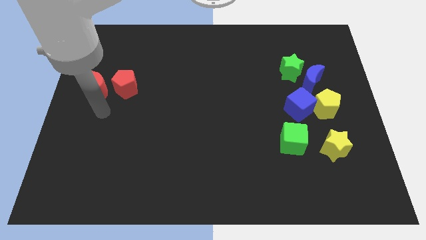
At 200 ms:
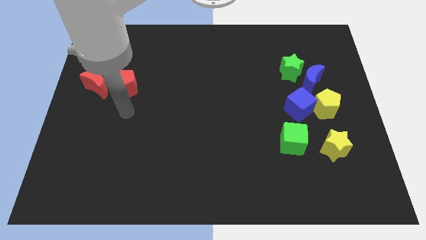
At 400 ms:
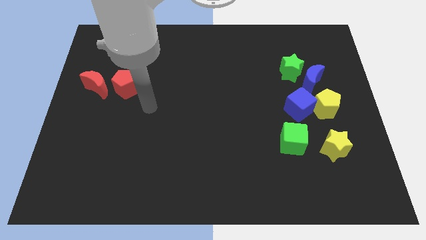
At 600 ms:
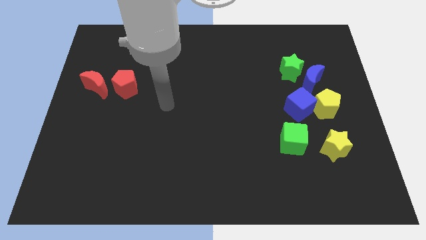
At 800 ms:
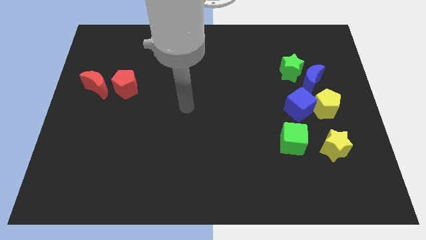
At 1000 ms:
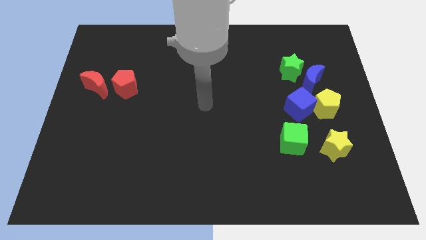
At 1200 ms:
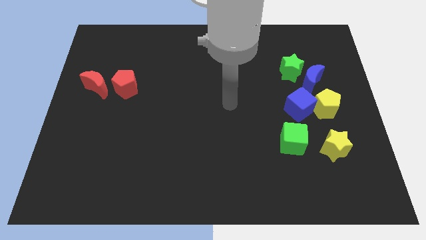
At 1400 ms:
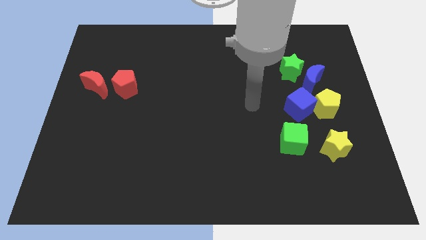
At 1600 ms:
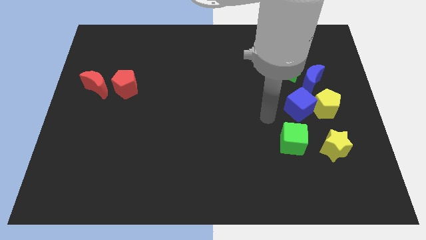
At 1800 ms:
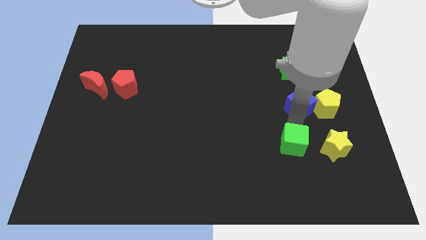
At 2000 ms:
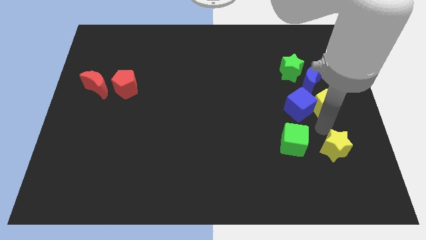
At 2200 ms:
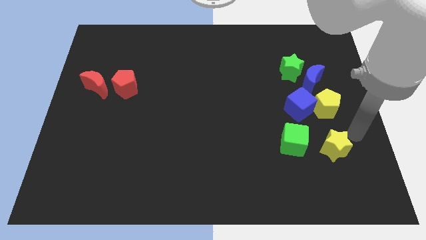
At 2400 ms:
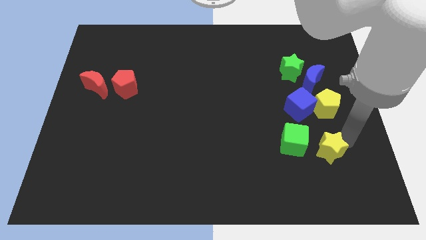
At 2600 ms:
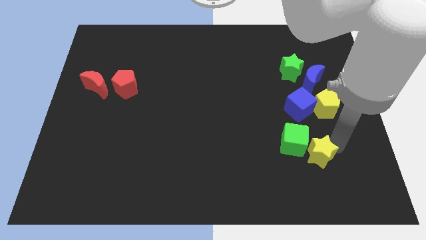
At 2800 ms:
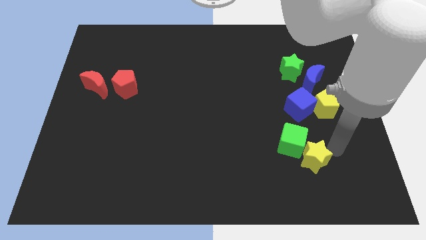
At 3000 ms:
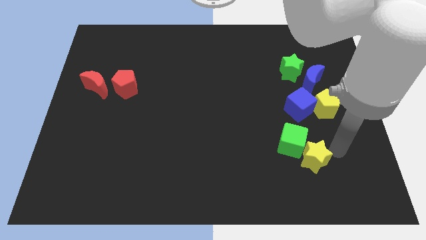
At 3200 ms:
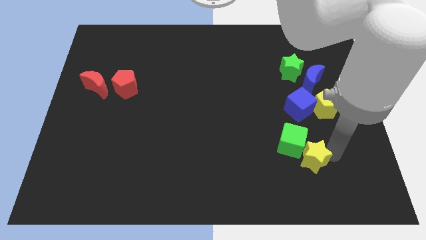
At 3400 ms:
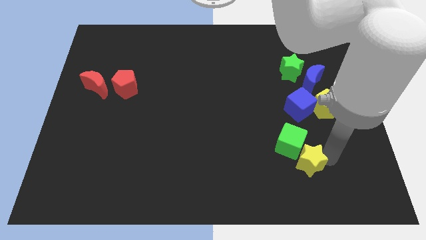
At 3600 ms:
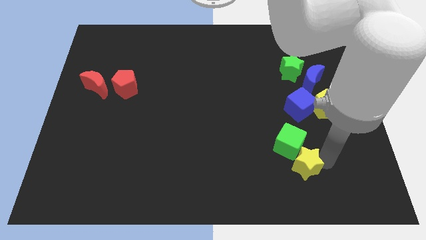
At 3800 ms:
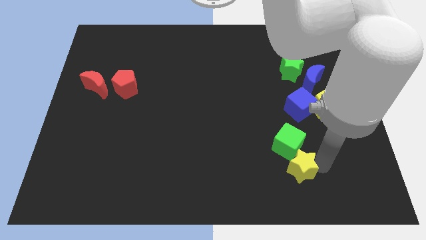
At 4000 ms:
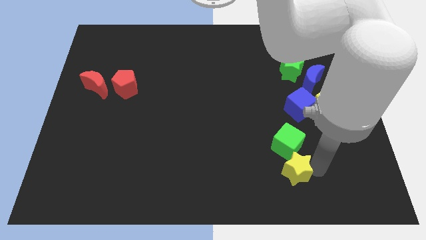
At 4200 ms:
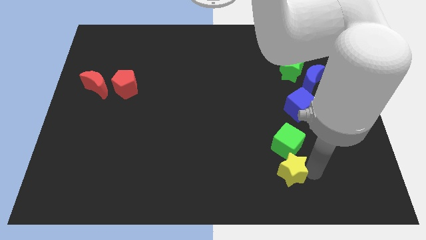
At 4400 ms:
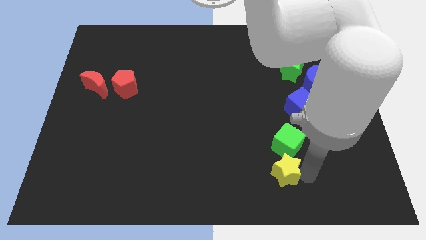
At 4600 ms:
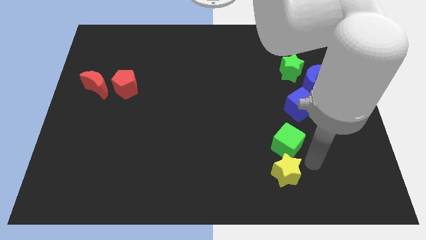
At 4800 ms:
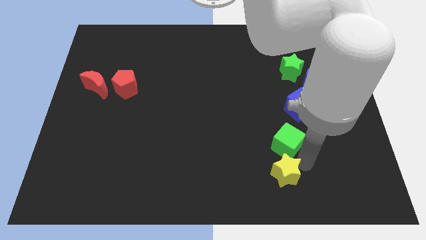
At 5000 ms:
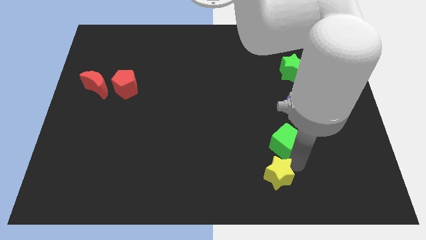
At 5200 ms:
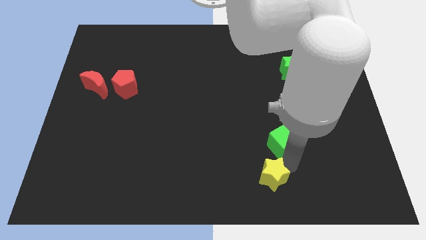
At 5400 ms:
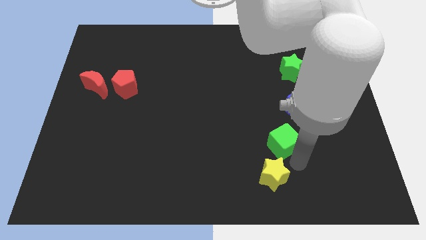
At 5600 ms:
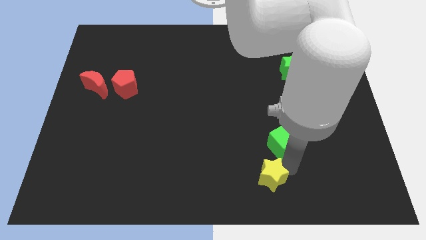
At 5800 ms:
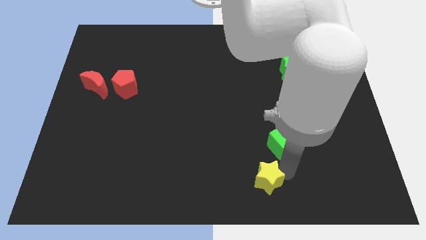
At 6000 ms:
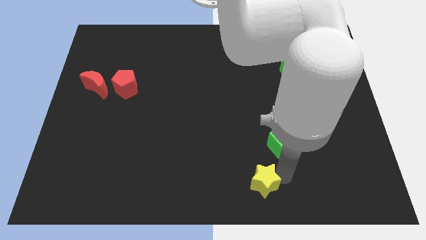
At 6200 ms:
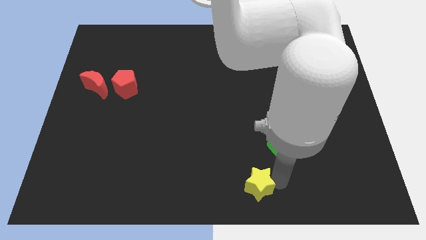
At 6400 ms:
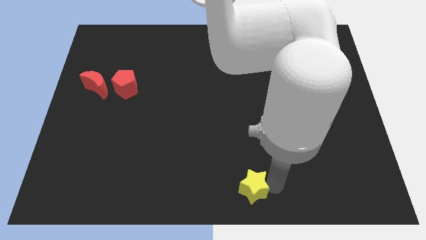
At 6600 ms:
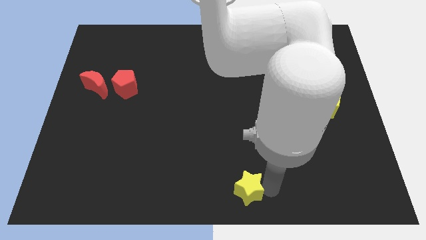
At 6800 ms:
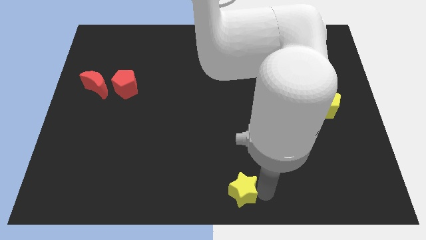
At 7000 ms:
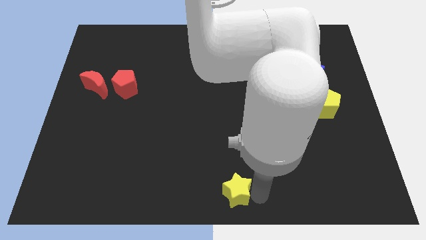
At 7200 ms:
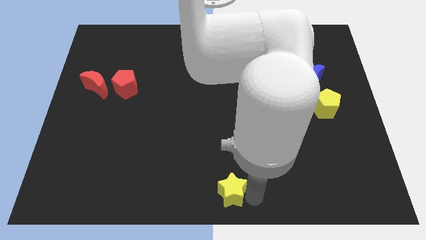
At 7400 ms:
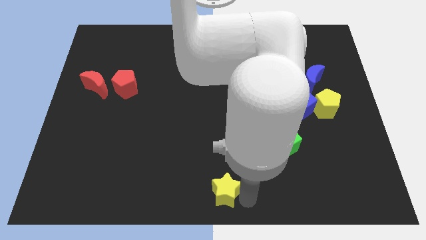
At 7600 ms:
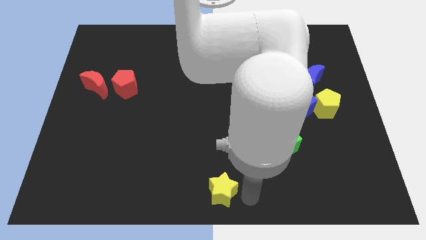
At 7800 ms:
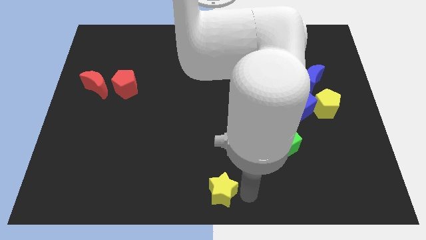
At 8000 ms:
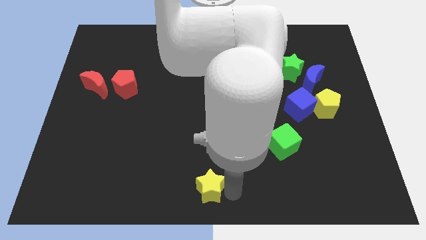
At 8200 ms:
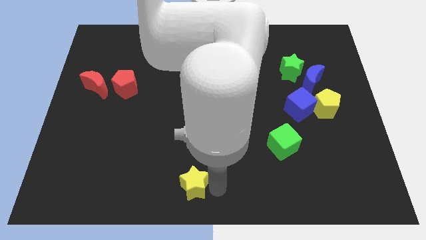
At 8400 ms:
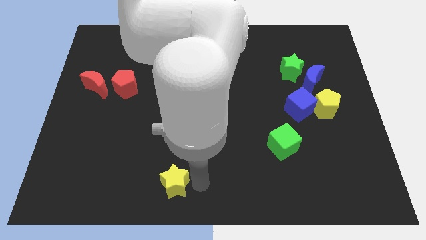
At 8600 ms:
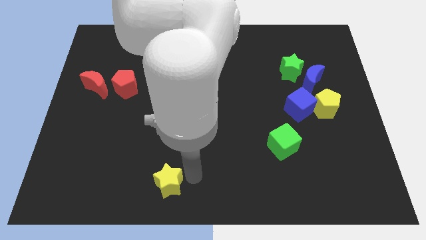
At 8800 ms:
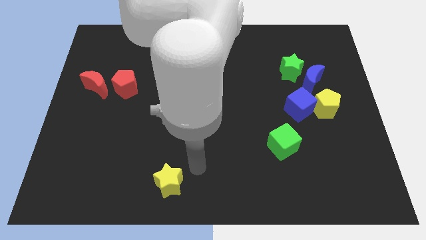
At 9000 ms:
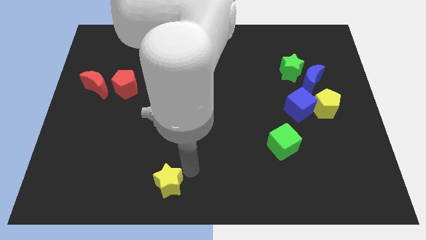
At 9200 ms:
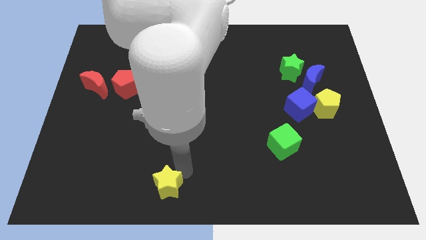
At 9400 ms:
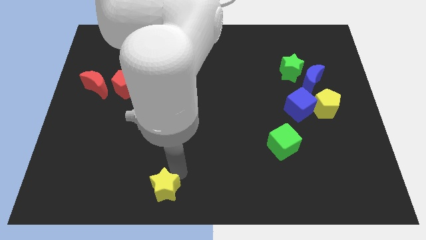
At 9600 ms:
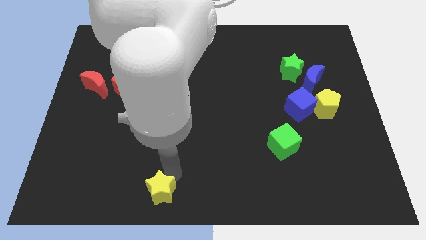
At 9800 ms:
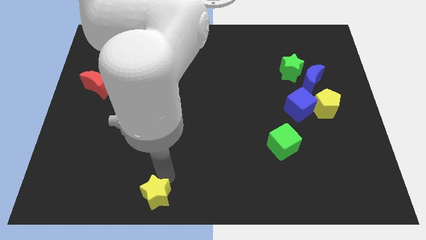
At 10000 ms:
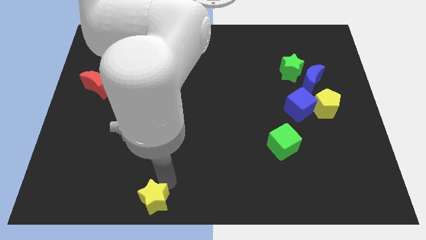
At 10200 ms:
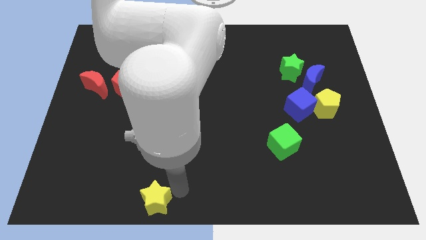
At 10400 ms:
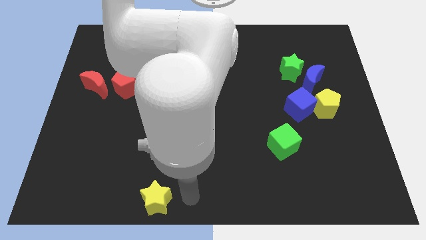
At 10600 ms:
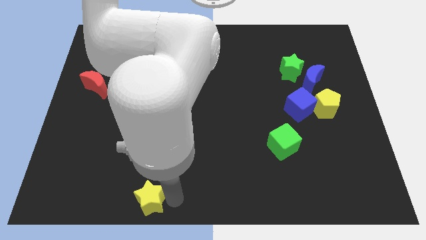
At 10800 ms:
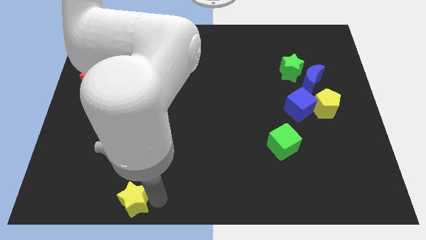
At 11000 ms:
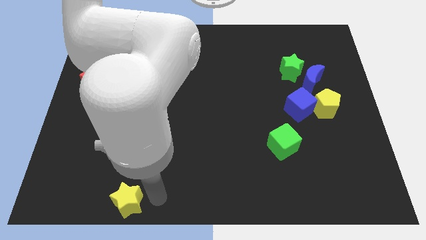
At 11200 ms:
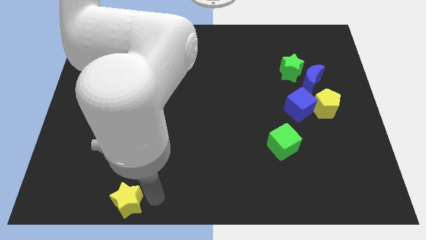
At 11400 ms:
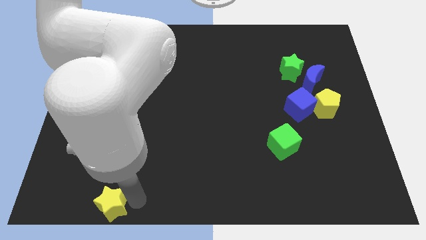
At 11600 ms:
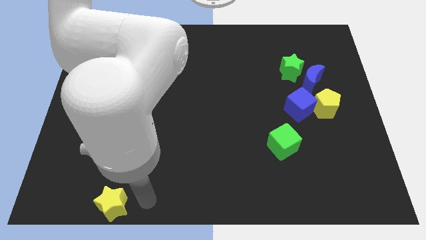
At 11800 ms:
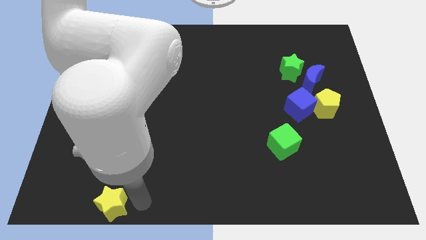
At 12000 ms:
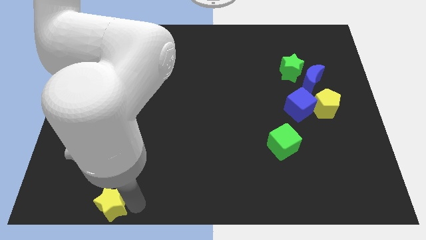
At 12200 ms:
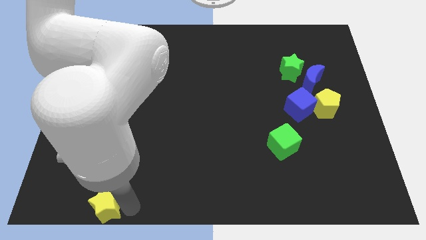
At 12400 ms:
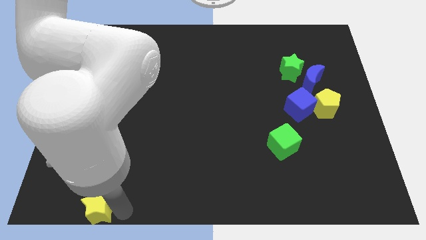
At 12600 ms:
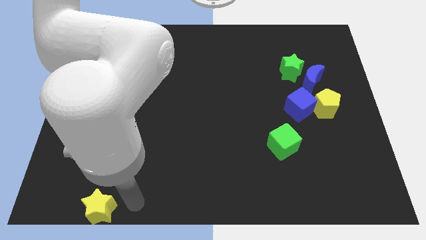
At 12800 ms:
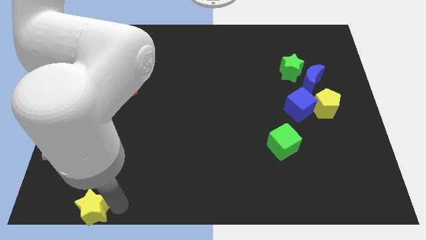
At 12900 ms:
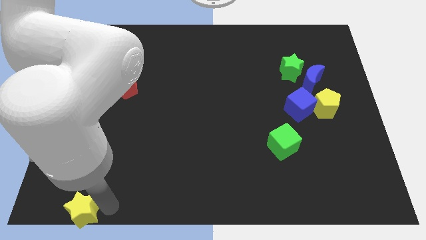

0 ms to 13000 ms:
slide the yellow star to the bottom left corner
